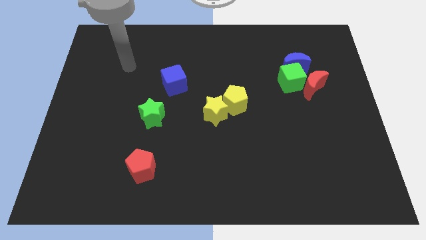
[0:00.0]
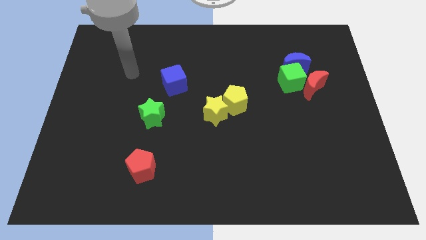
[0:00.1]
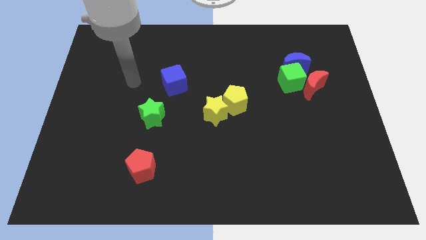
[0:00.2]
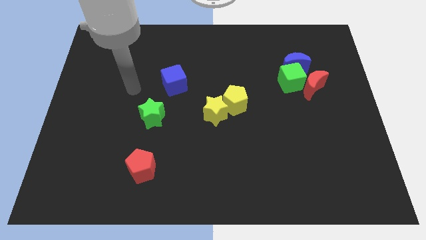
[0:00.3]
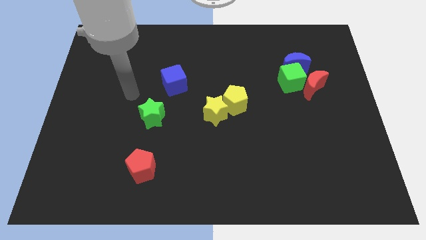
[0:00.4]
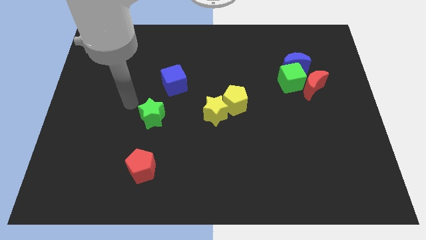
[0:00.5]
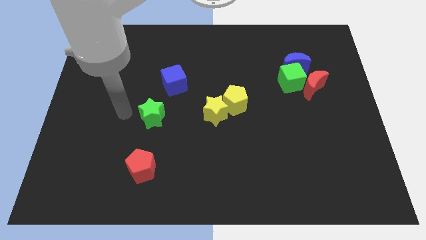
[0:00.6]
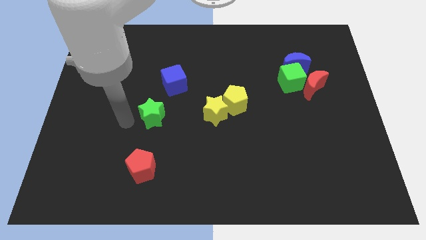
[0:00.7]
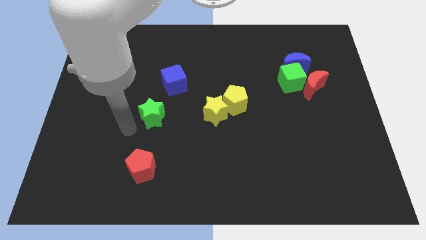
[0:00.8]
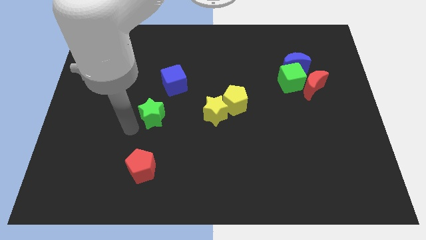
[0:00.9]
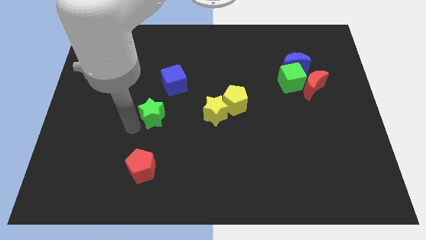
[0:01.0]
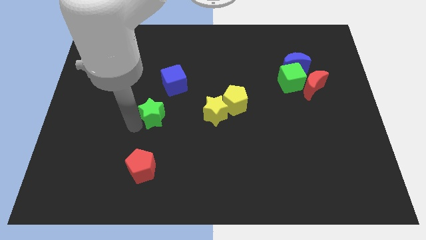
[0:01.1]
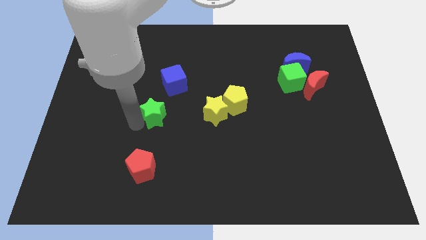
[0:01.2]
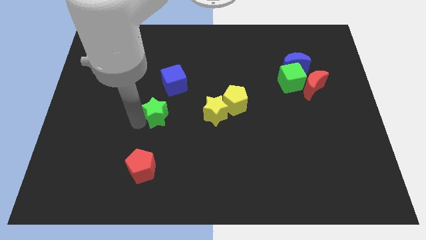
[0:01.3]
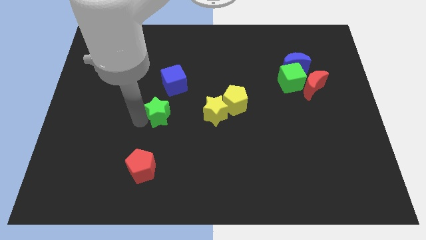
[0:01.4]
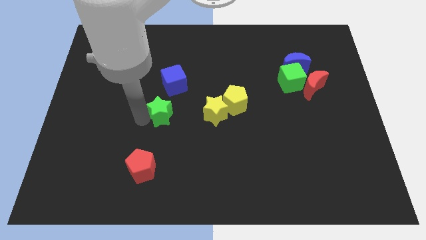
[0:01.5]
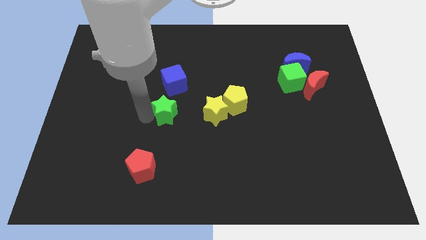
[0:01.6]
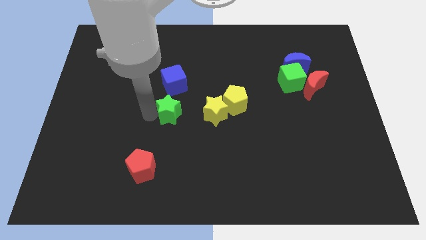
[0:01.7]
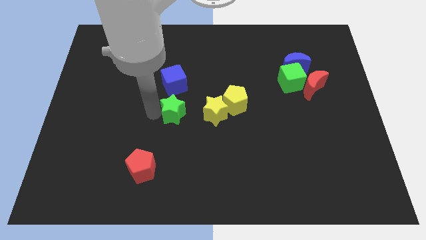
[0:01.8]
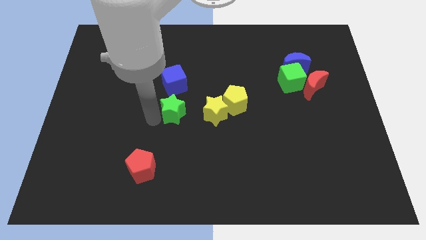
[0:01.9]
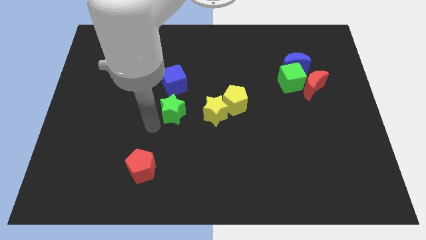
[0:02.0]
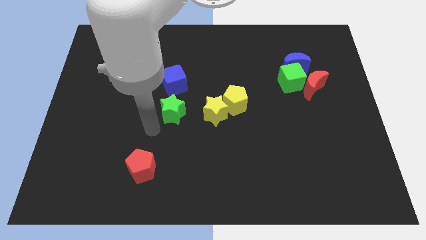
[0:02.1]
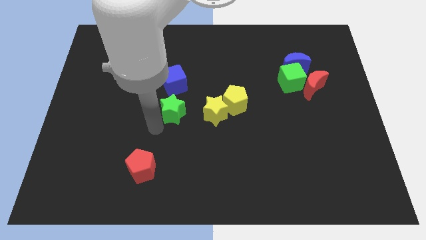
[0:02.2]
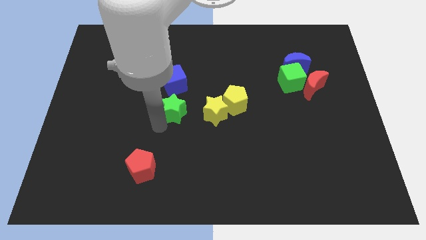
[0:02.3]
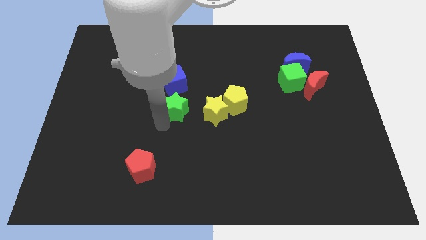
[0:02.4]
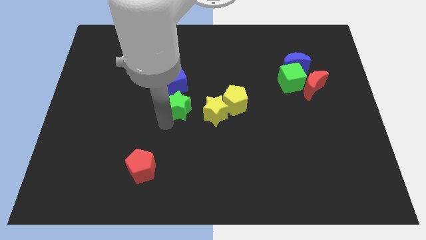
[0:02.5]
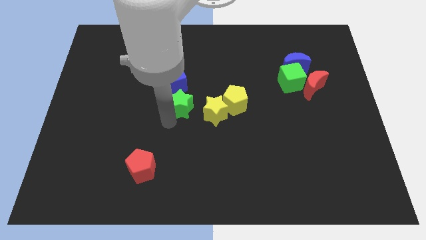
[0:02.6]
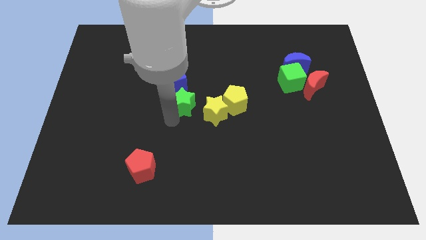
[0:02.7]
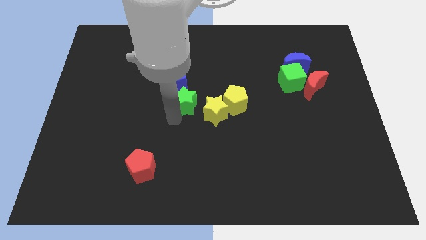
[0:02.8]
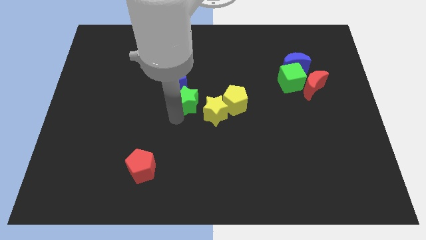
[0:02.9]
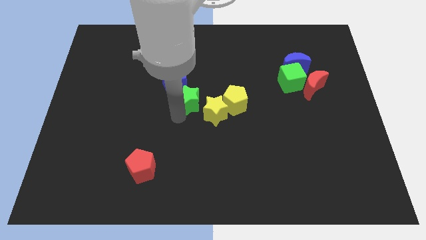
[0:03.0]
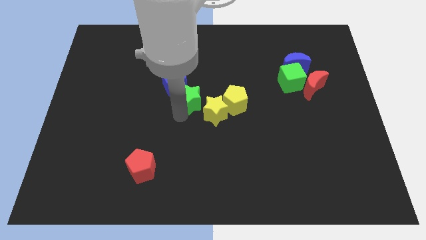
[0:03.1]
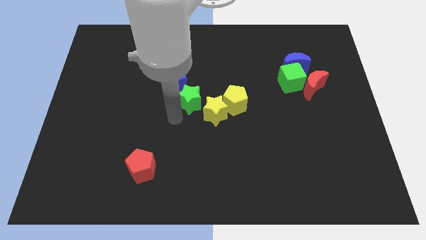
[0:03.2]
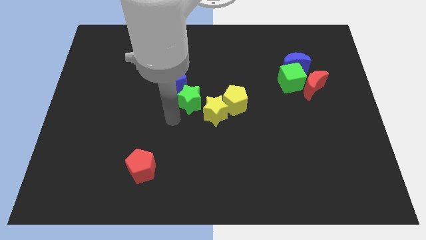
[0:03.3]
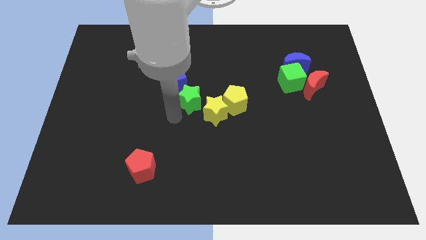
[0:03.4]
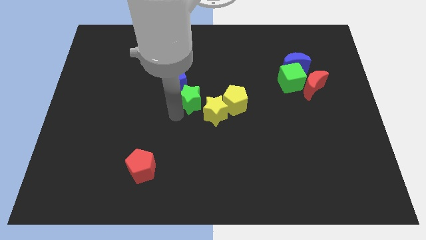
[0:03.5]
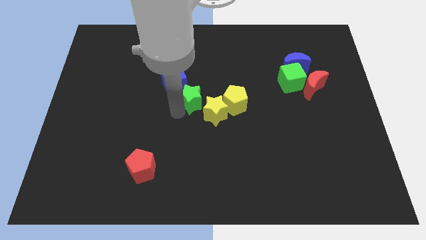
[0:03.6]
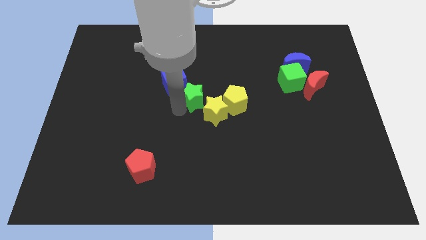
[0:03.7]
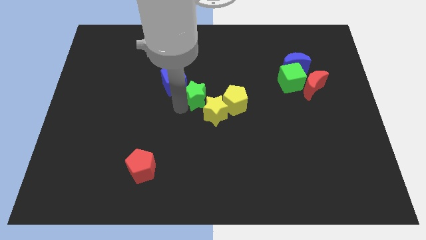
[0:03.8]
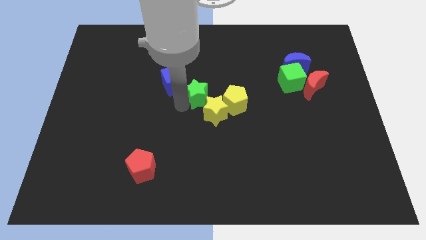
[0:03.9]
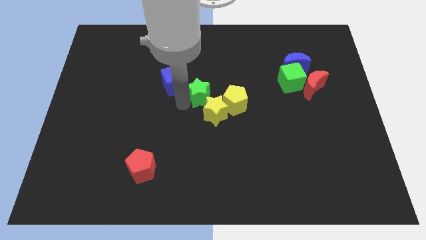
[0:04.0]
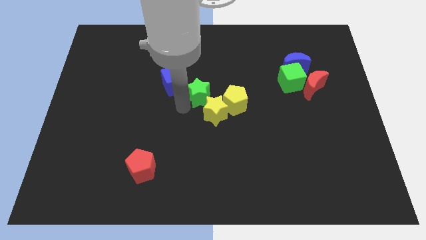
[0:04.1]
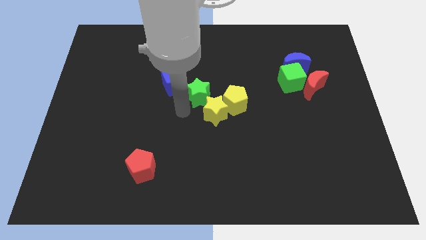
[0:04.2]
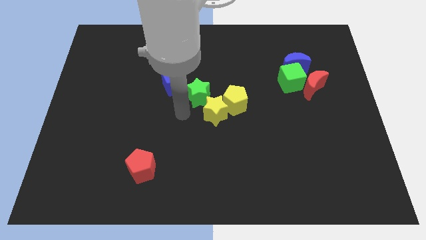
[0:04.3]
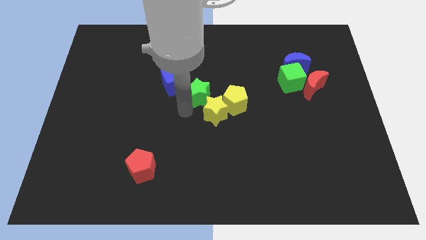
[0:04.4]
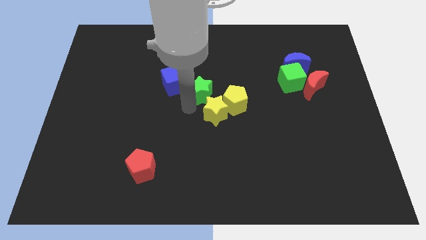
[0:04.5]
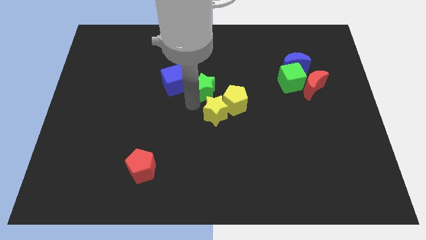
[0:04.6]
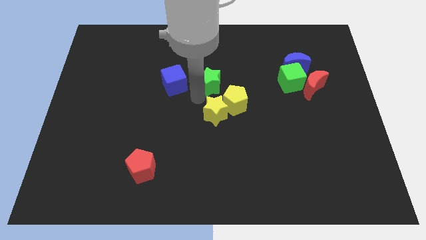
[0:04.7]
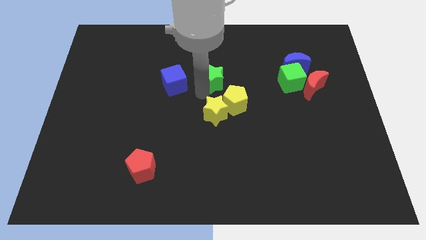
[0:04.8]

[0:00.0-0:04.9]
slide the green star to the top side of the yellow pentagon

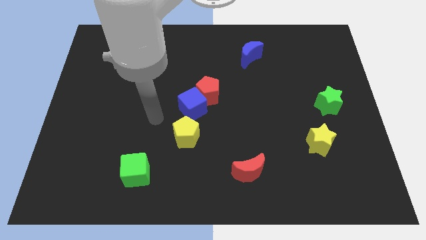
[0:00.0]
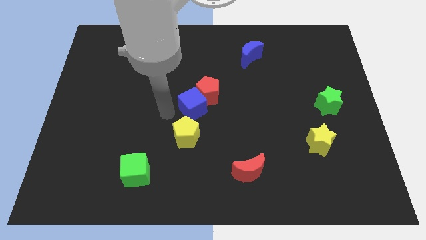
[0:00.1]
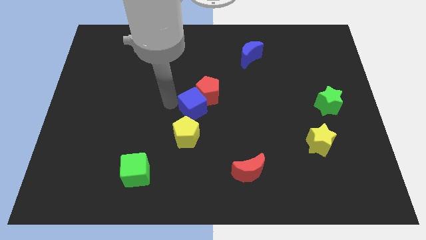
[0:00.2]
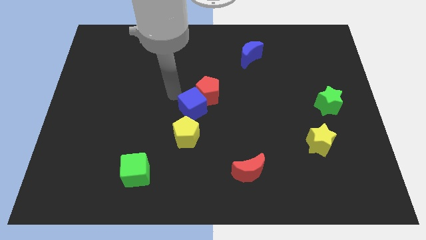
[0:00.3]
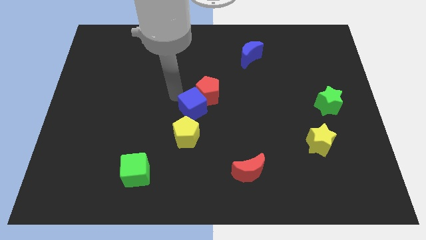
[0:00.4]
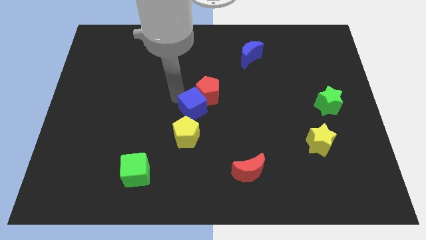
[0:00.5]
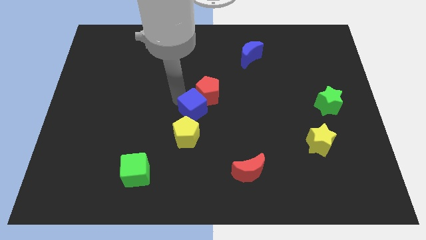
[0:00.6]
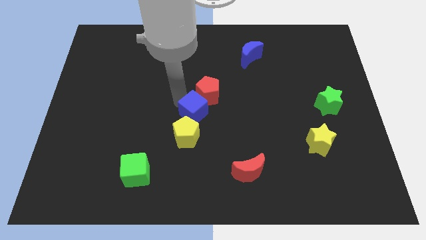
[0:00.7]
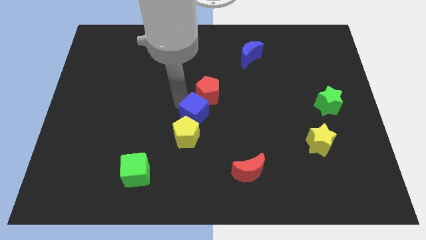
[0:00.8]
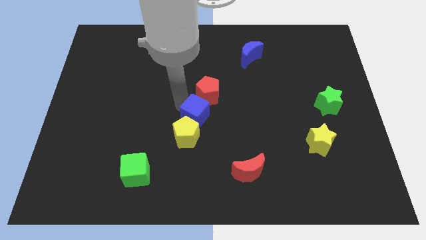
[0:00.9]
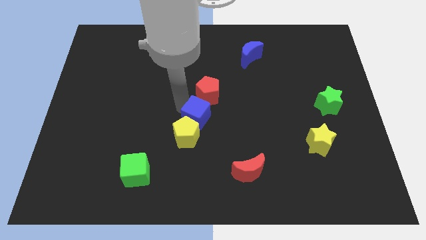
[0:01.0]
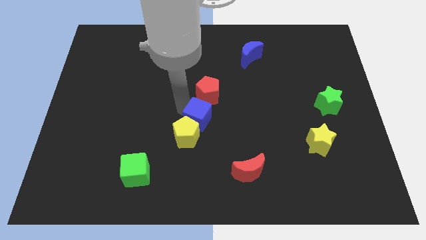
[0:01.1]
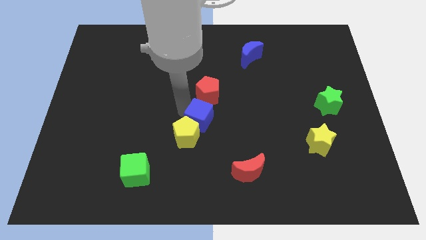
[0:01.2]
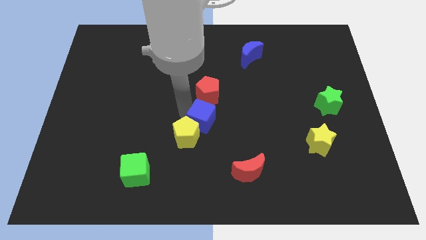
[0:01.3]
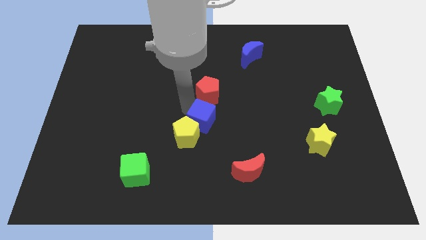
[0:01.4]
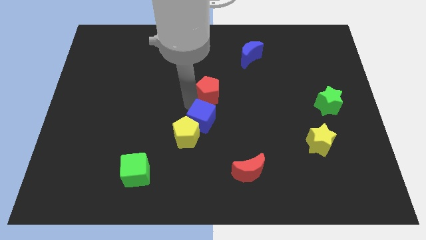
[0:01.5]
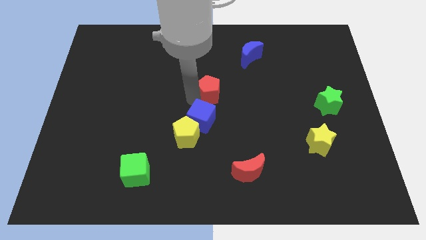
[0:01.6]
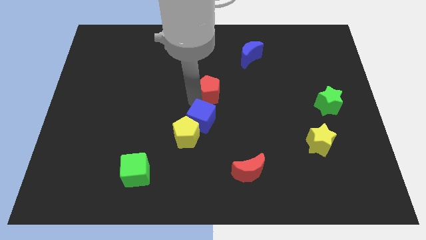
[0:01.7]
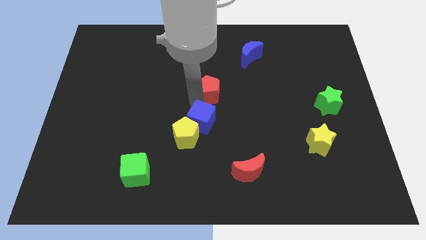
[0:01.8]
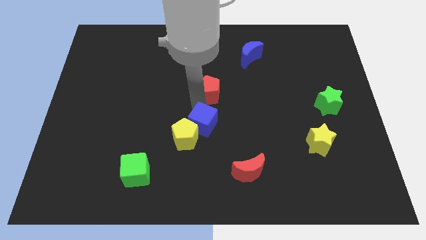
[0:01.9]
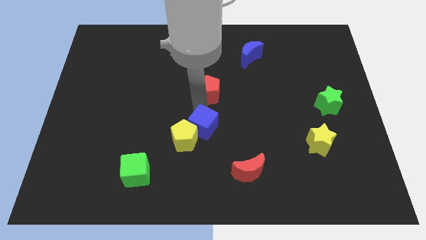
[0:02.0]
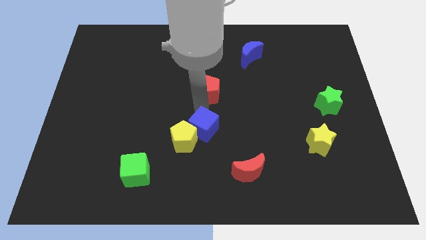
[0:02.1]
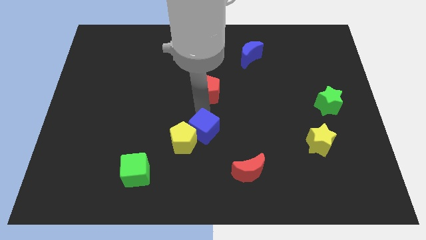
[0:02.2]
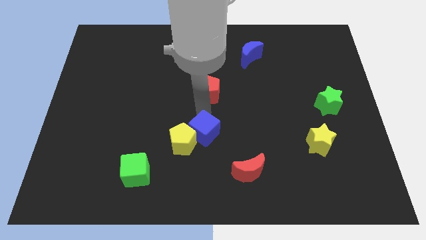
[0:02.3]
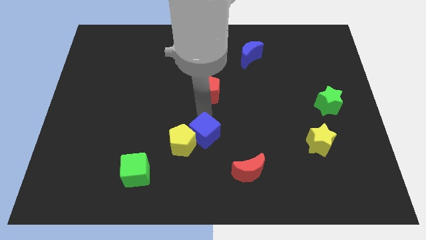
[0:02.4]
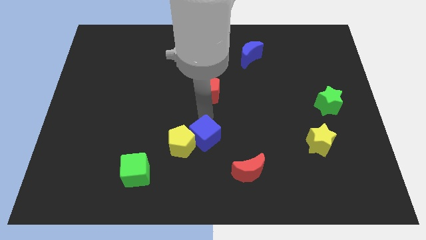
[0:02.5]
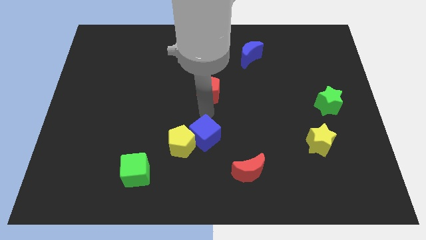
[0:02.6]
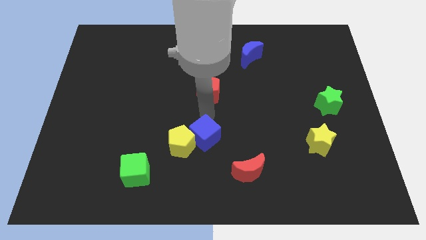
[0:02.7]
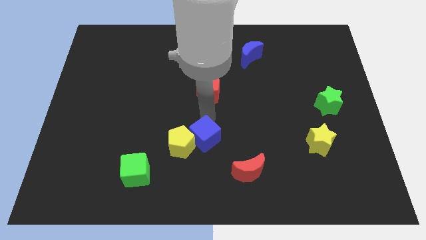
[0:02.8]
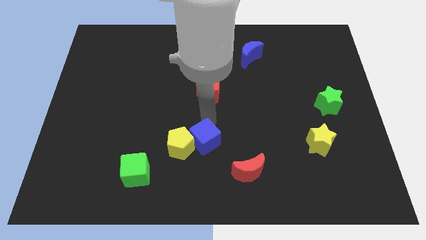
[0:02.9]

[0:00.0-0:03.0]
push the blue cube to the bottom right side of the yellow pentagon
